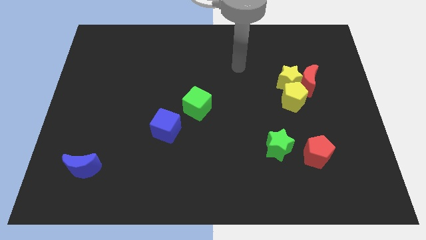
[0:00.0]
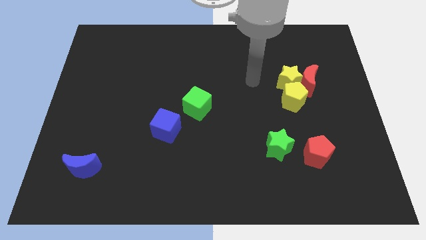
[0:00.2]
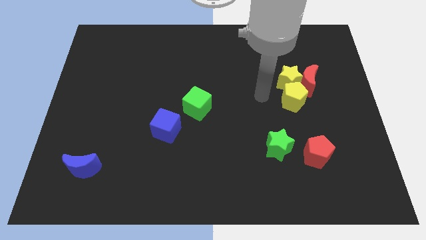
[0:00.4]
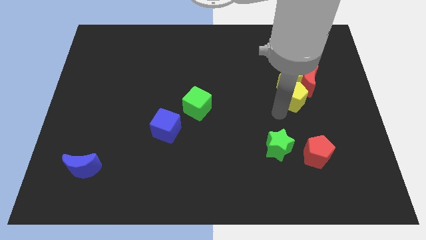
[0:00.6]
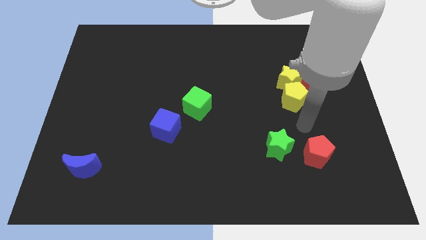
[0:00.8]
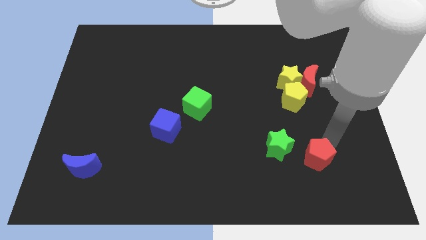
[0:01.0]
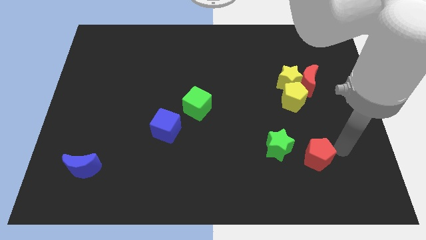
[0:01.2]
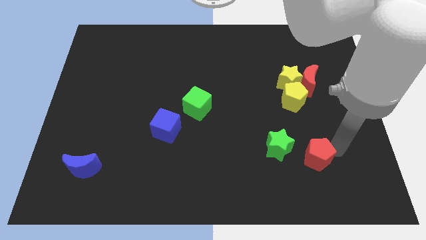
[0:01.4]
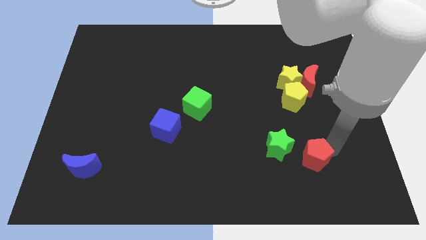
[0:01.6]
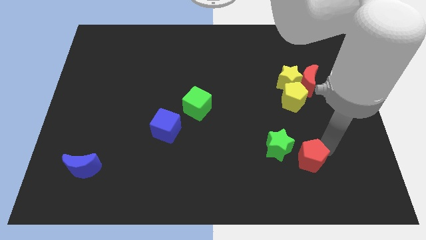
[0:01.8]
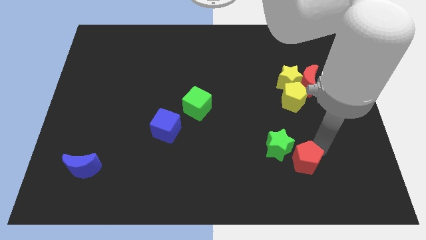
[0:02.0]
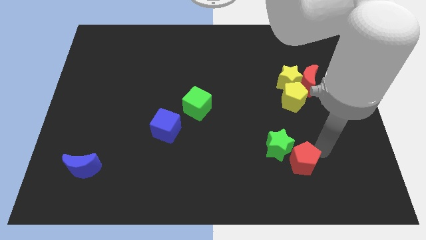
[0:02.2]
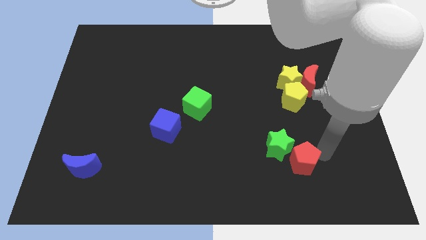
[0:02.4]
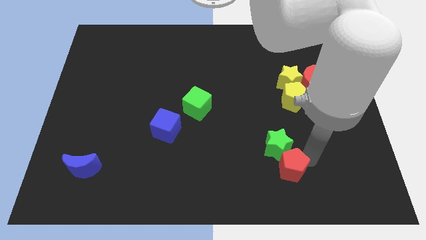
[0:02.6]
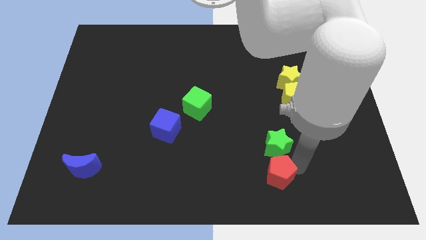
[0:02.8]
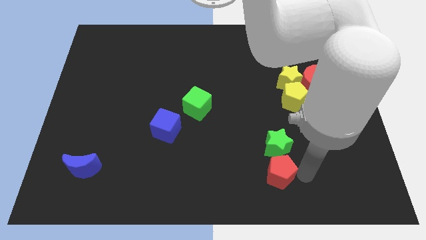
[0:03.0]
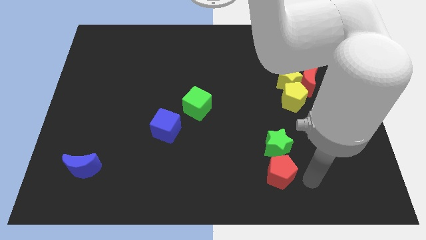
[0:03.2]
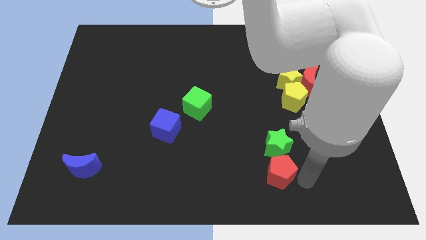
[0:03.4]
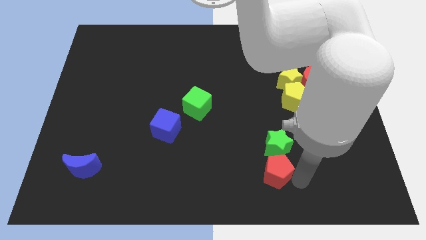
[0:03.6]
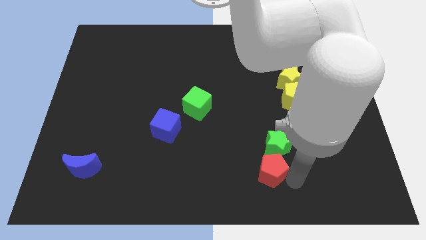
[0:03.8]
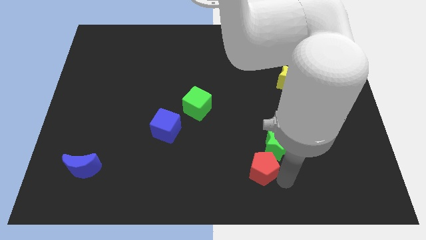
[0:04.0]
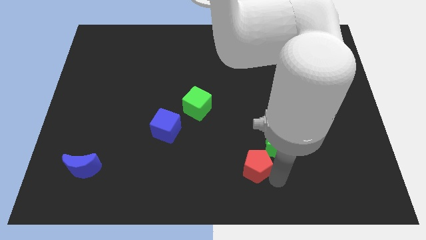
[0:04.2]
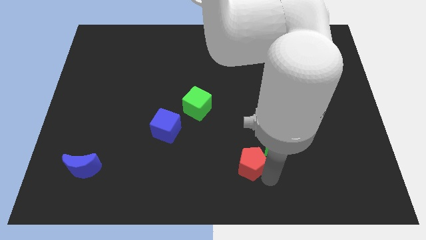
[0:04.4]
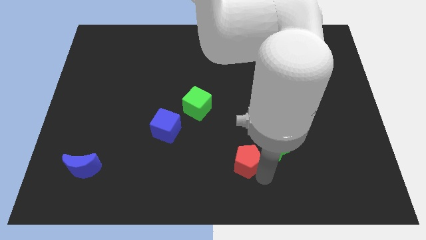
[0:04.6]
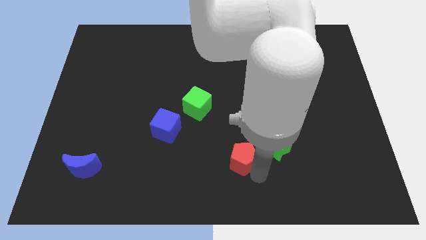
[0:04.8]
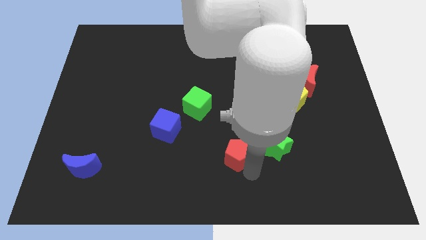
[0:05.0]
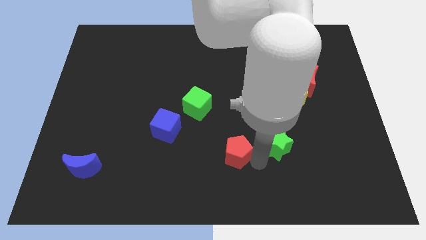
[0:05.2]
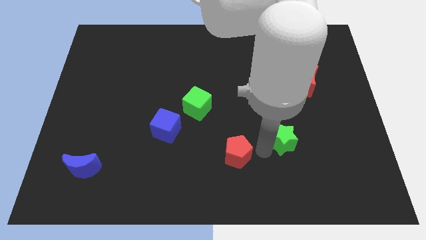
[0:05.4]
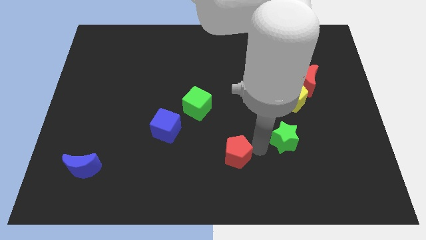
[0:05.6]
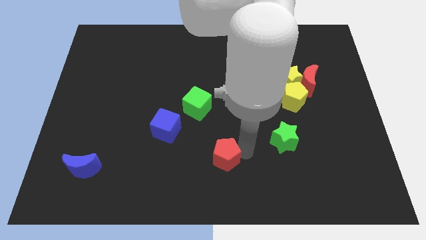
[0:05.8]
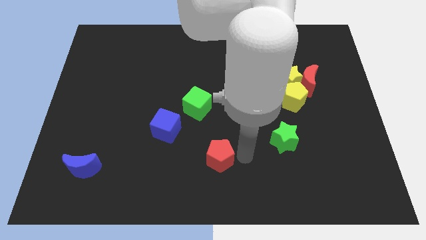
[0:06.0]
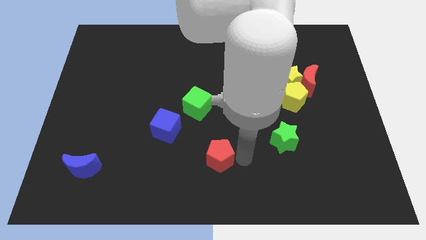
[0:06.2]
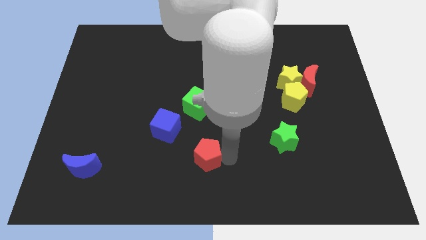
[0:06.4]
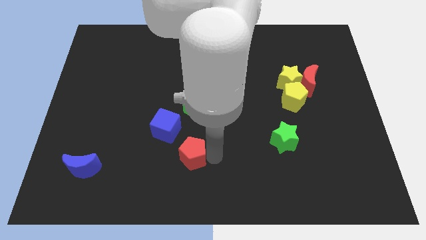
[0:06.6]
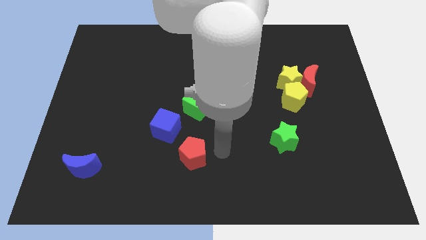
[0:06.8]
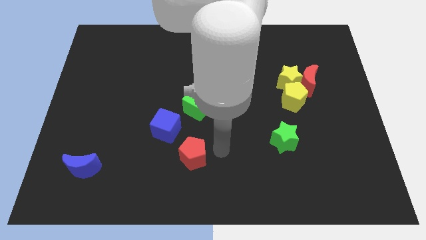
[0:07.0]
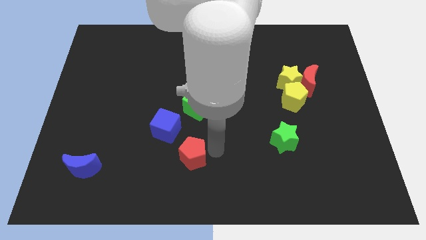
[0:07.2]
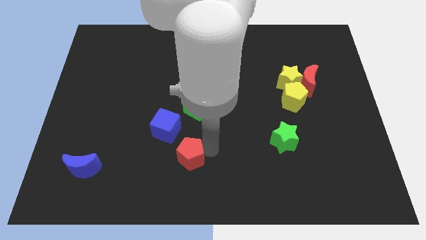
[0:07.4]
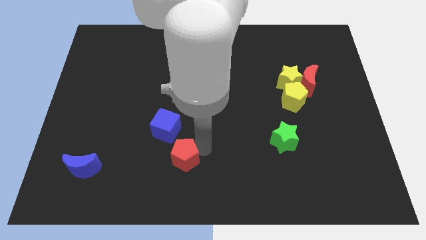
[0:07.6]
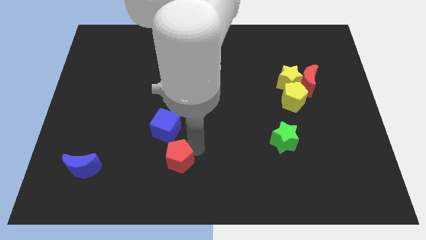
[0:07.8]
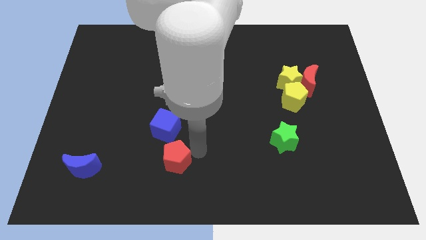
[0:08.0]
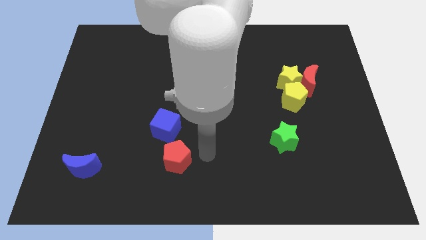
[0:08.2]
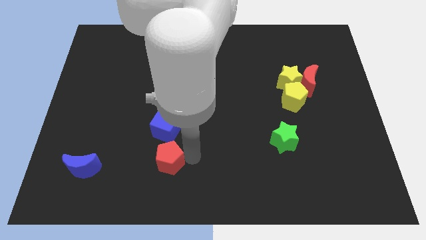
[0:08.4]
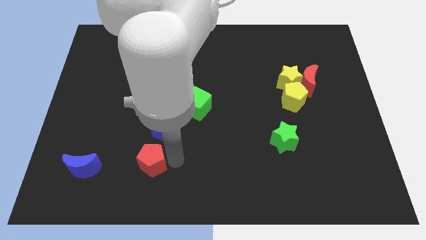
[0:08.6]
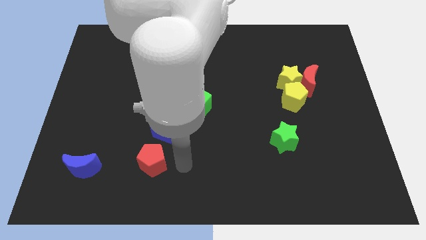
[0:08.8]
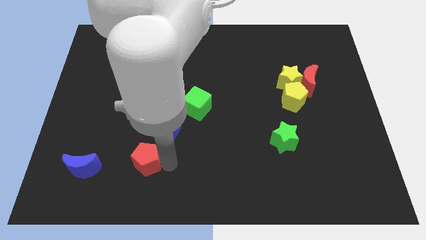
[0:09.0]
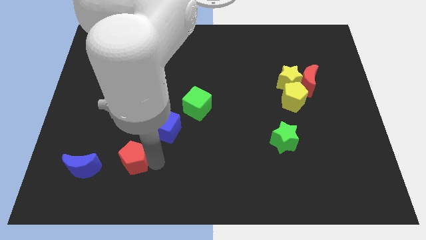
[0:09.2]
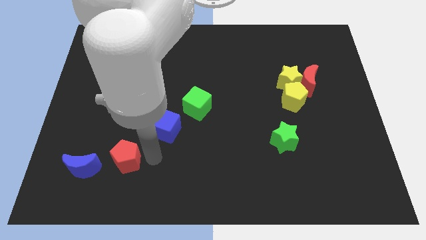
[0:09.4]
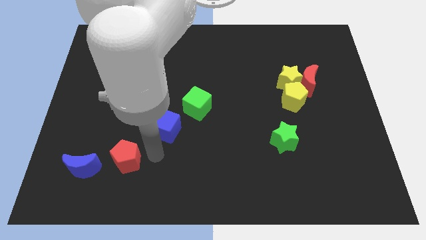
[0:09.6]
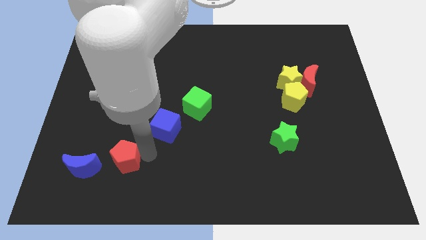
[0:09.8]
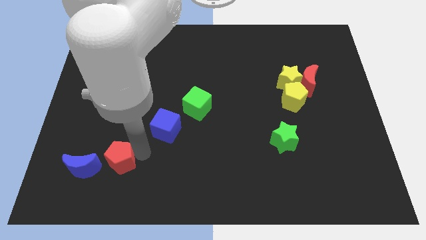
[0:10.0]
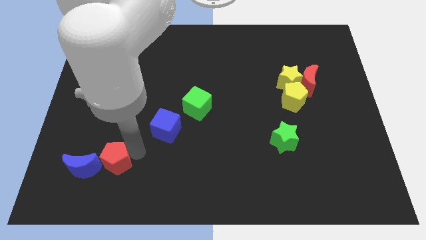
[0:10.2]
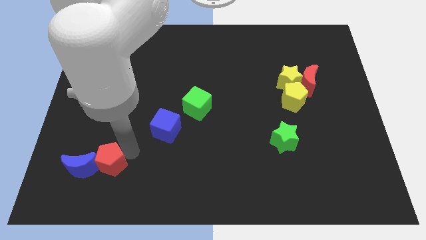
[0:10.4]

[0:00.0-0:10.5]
slide the red pentagon close to the blue moon

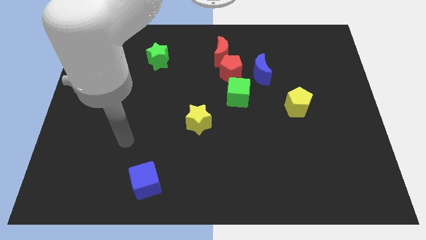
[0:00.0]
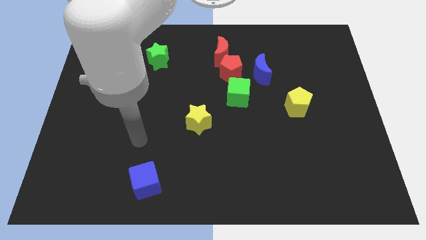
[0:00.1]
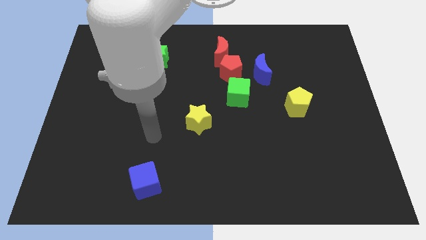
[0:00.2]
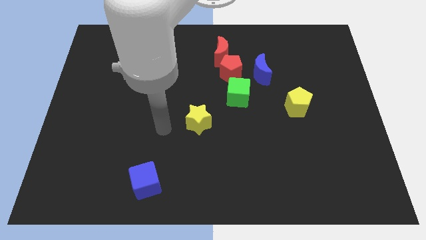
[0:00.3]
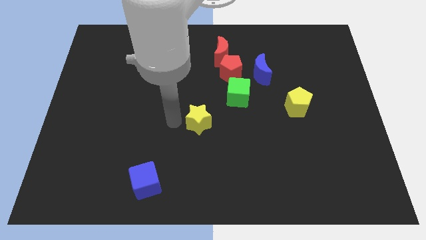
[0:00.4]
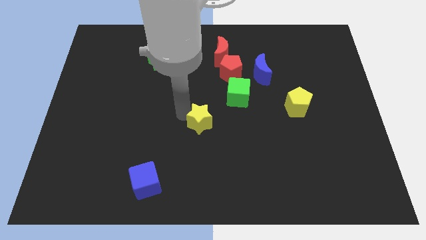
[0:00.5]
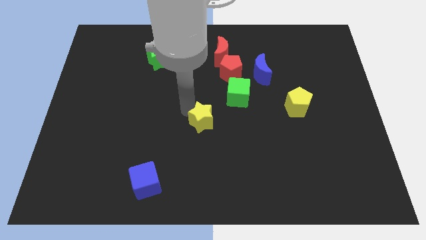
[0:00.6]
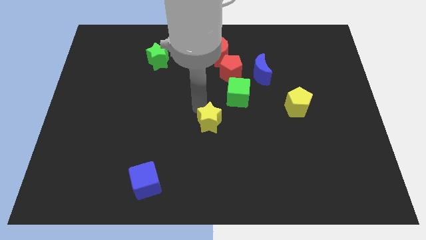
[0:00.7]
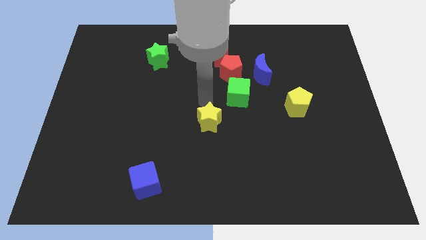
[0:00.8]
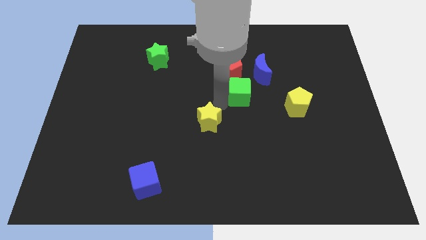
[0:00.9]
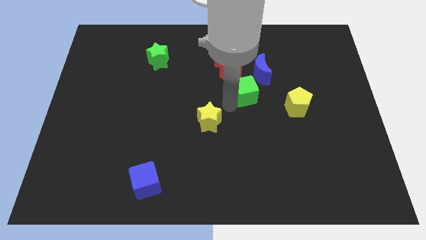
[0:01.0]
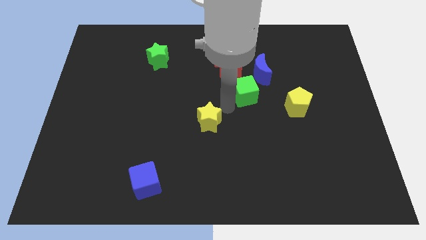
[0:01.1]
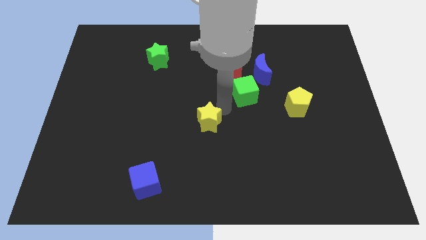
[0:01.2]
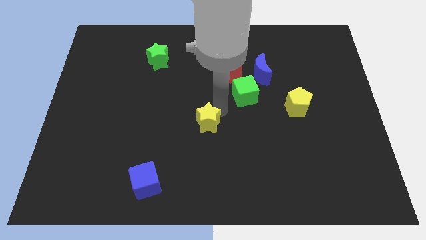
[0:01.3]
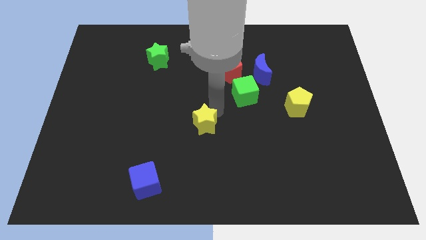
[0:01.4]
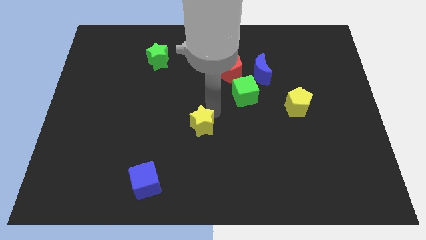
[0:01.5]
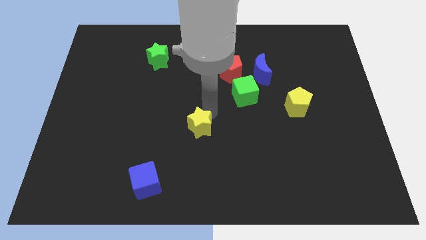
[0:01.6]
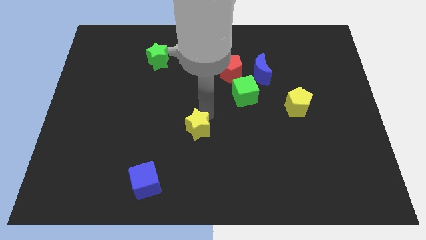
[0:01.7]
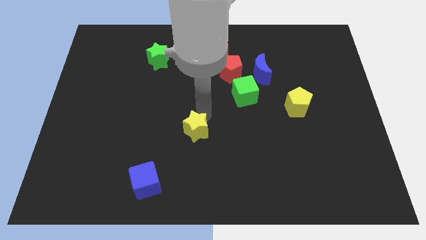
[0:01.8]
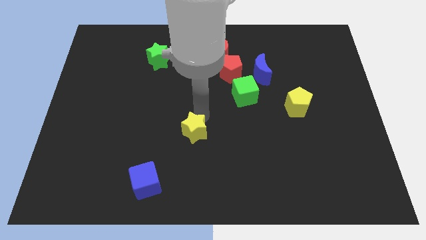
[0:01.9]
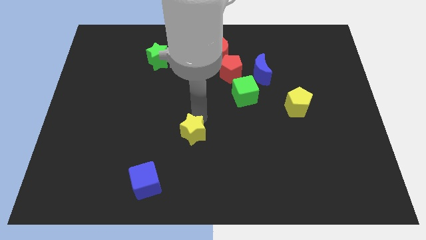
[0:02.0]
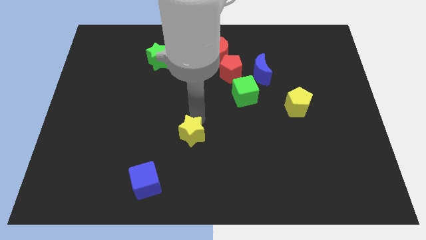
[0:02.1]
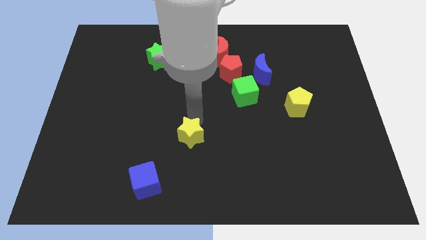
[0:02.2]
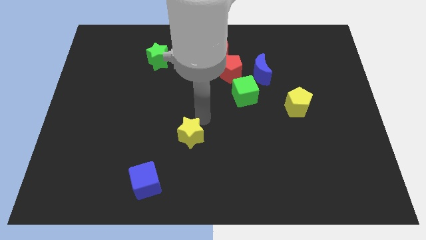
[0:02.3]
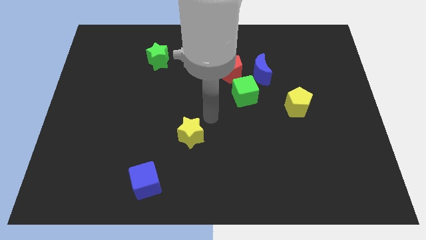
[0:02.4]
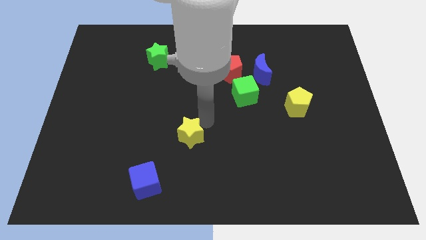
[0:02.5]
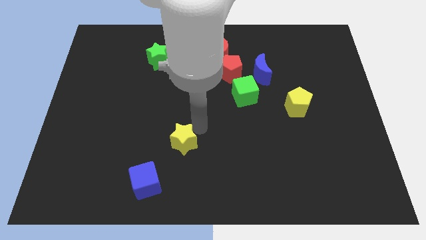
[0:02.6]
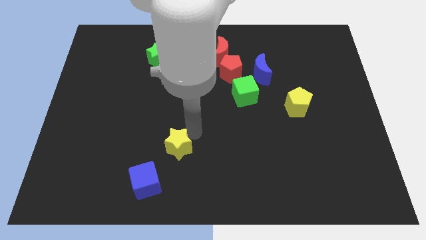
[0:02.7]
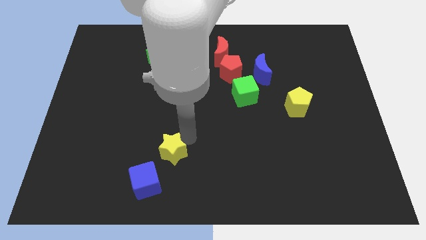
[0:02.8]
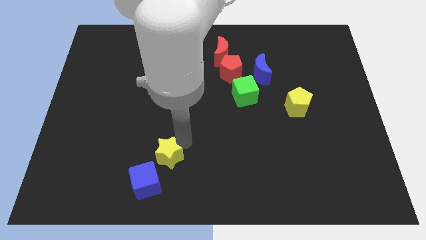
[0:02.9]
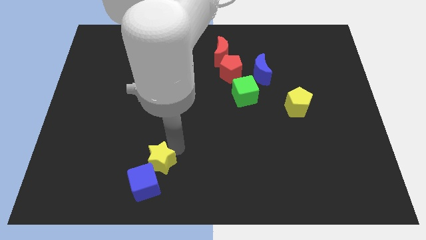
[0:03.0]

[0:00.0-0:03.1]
move the yellow star close to the blue cube
